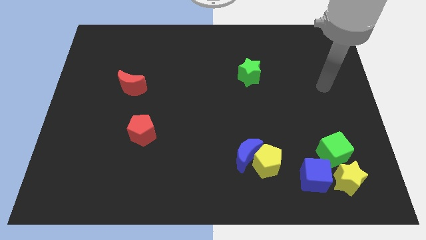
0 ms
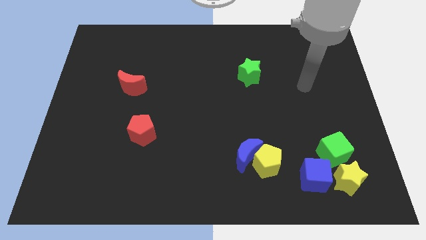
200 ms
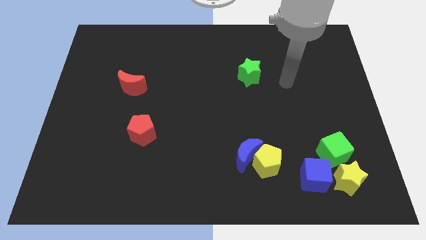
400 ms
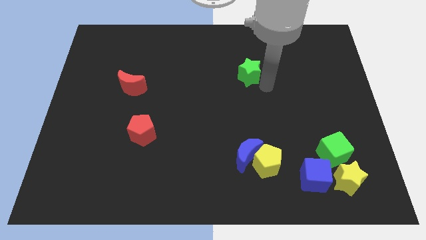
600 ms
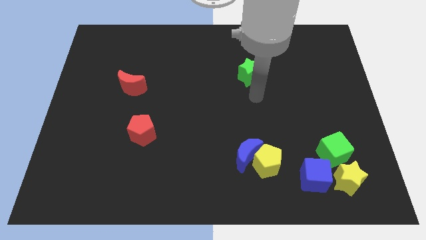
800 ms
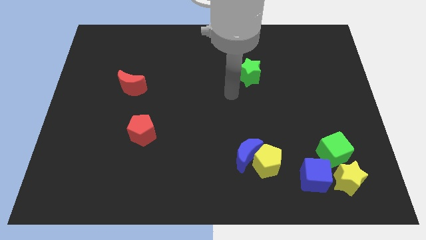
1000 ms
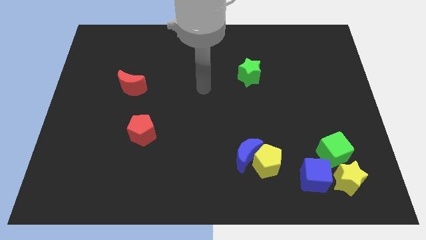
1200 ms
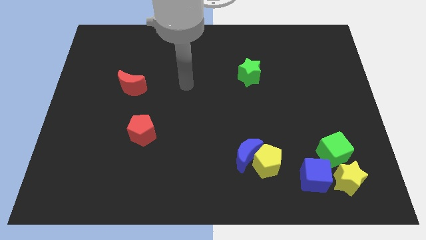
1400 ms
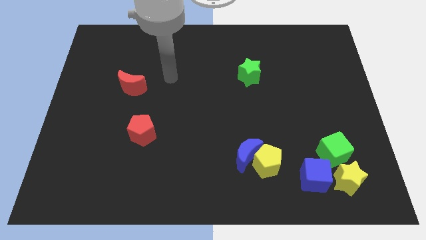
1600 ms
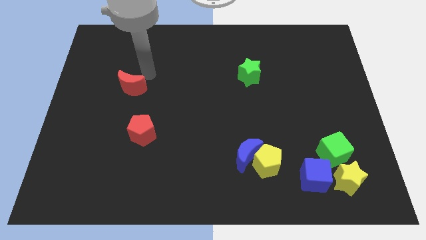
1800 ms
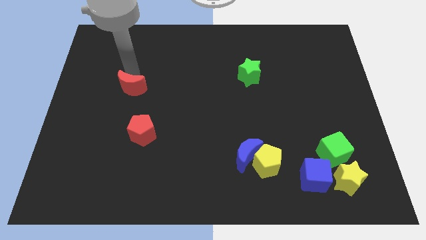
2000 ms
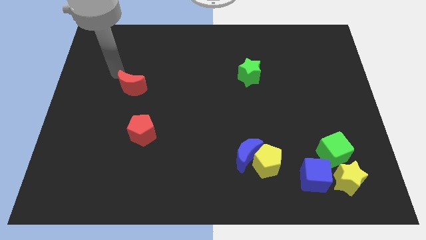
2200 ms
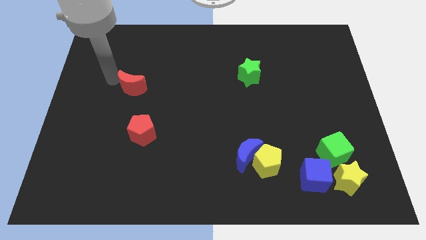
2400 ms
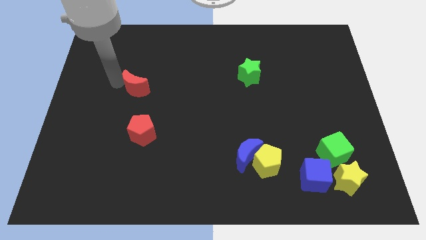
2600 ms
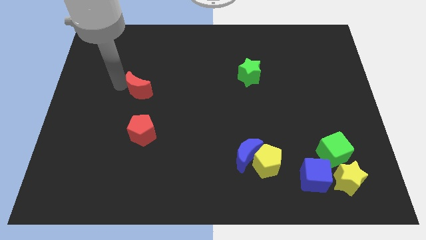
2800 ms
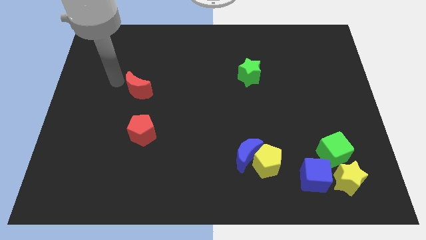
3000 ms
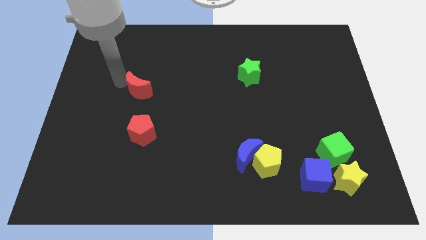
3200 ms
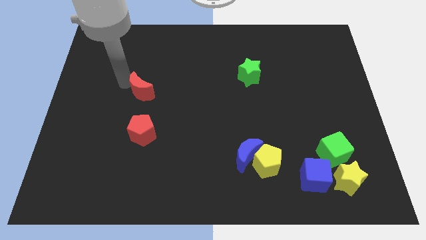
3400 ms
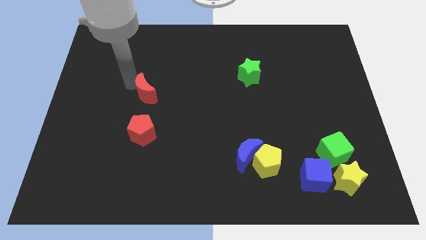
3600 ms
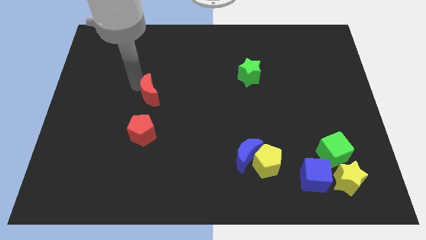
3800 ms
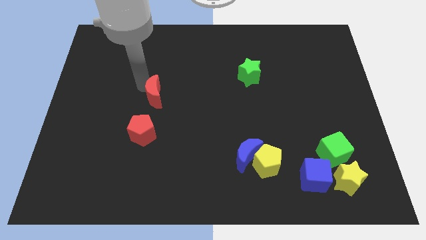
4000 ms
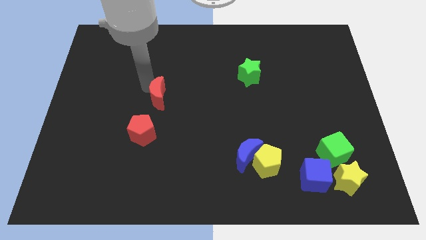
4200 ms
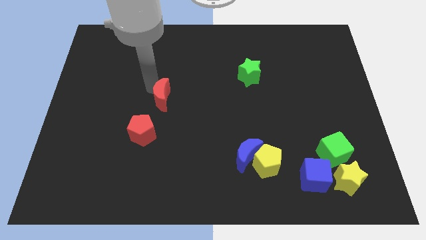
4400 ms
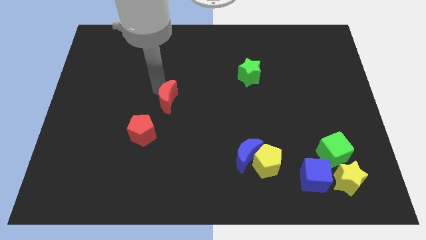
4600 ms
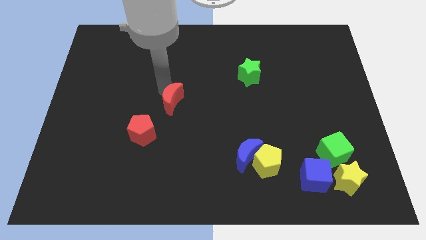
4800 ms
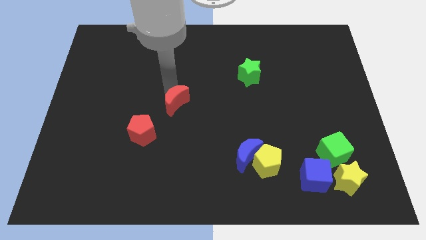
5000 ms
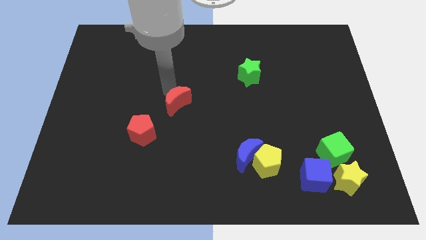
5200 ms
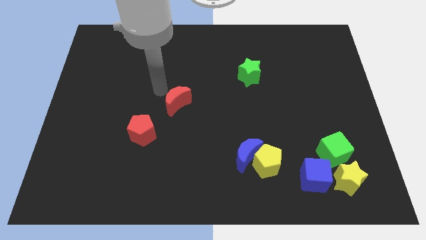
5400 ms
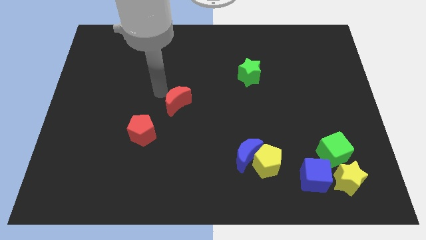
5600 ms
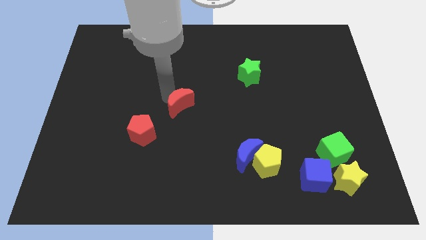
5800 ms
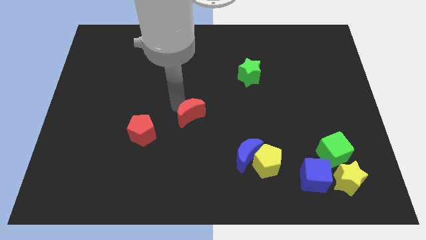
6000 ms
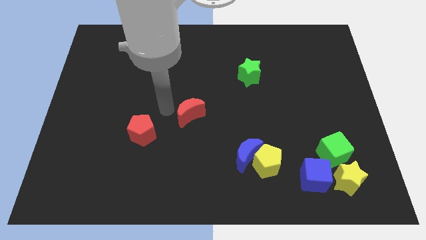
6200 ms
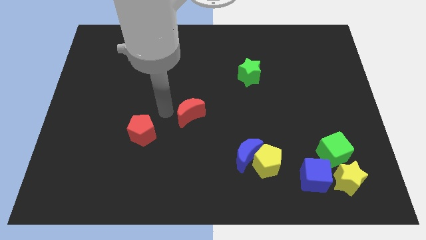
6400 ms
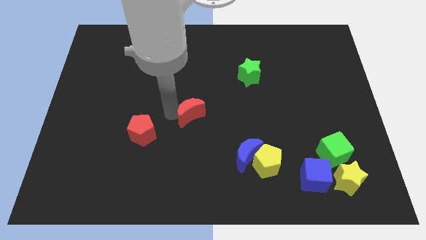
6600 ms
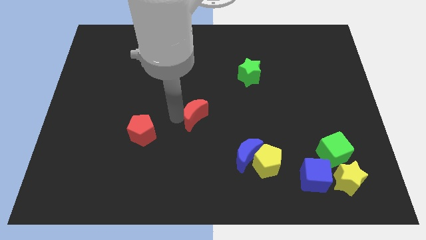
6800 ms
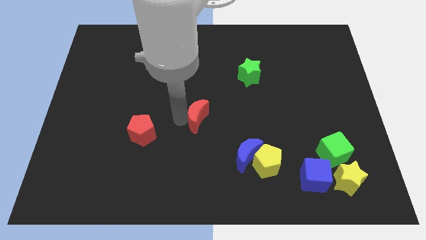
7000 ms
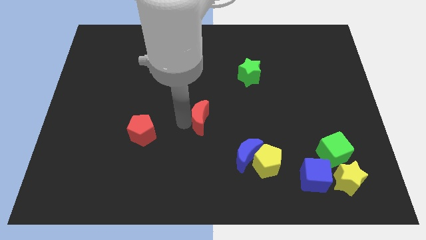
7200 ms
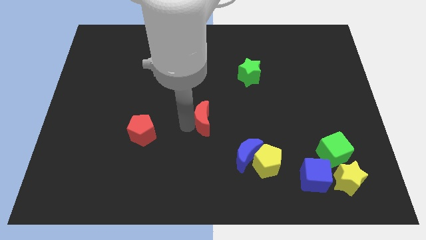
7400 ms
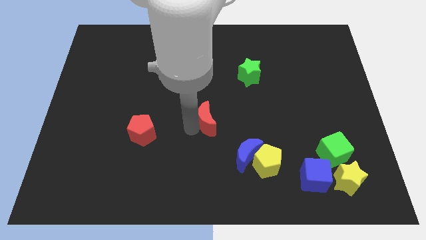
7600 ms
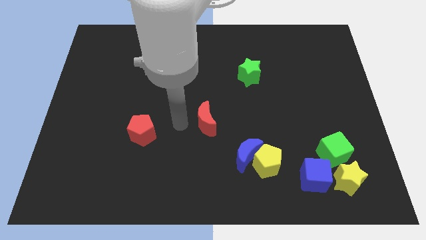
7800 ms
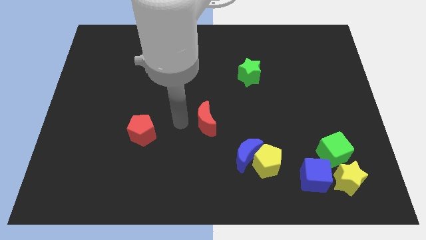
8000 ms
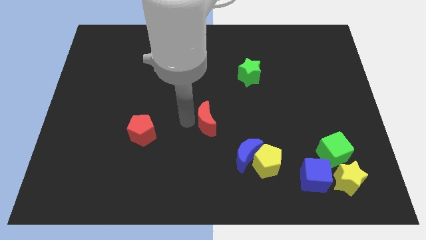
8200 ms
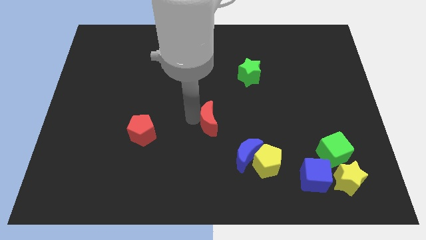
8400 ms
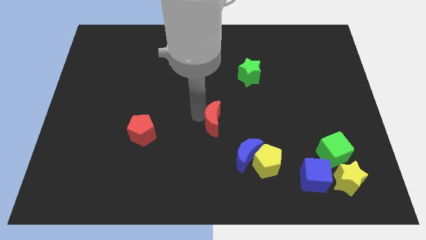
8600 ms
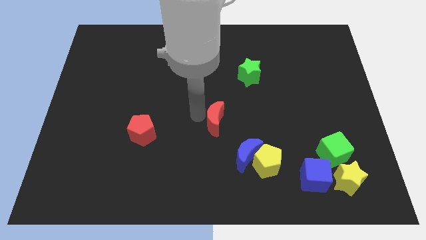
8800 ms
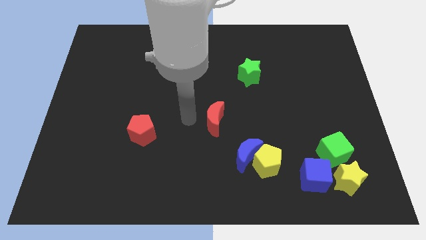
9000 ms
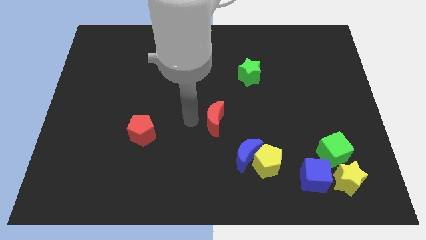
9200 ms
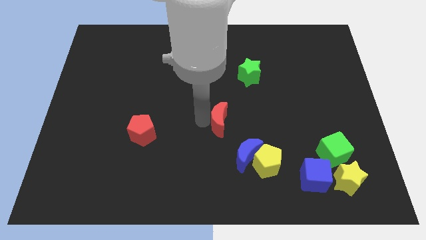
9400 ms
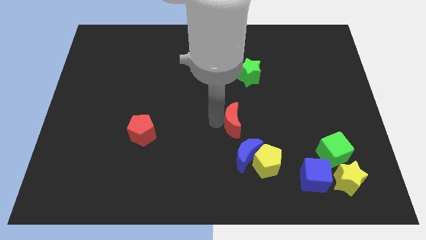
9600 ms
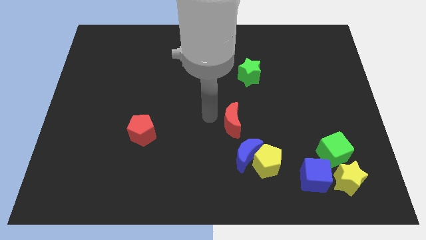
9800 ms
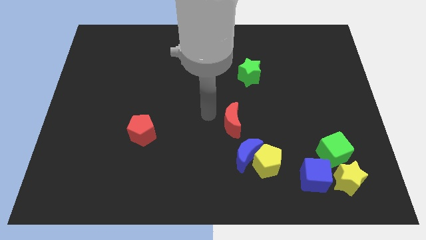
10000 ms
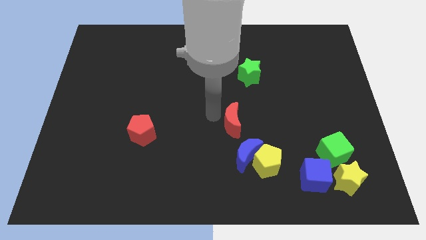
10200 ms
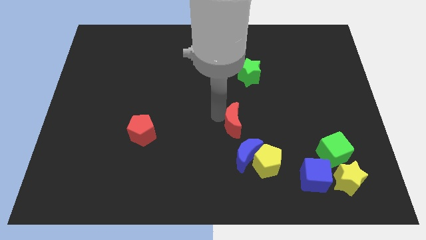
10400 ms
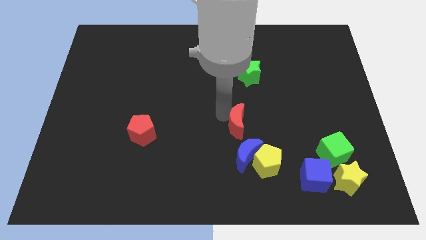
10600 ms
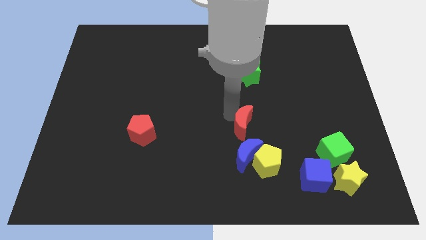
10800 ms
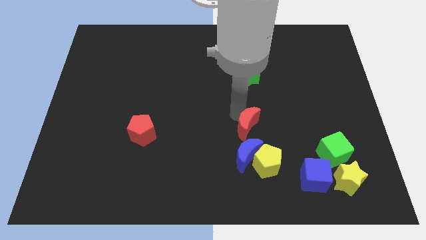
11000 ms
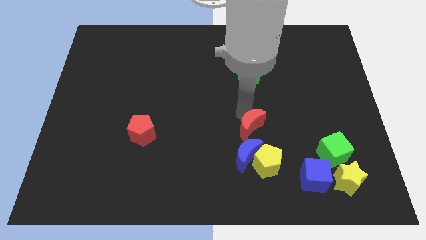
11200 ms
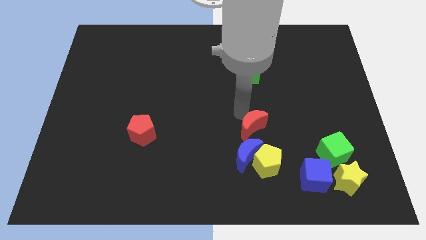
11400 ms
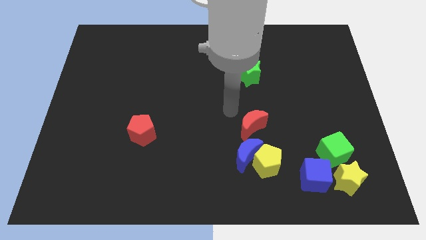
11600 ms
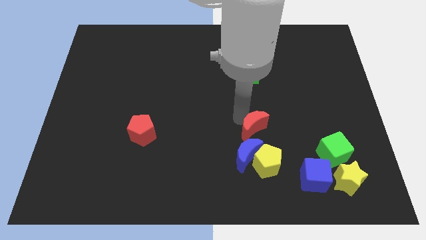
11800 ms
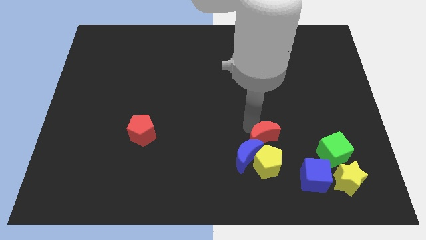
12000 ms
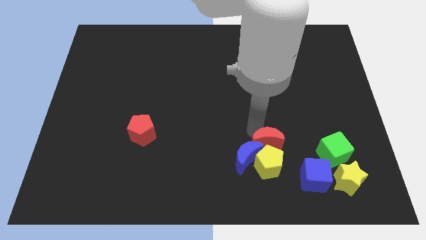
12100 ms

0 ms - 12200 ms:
move the red moon to the right of the blue moon

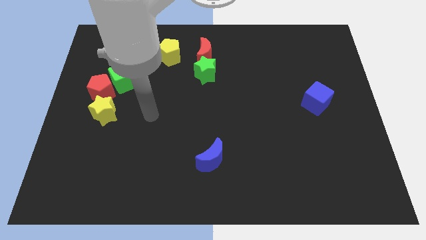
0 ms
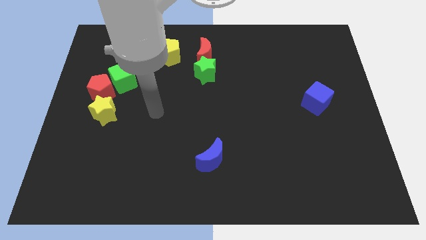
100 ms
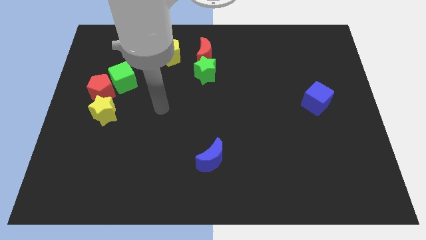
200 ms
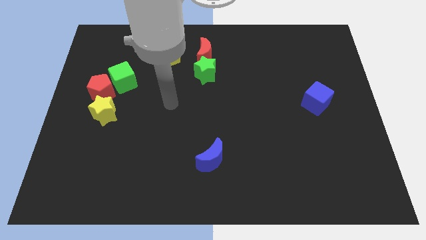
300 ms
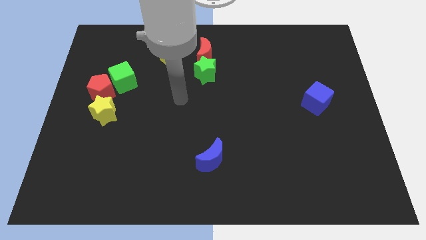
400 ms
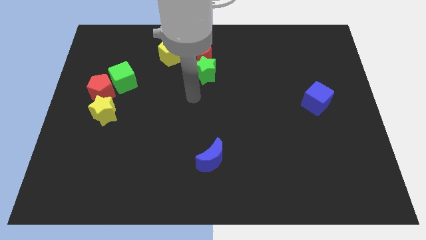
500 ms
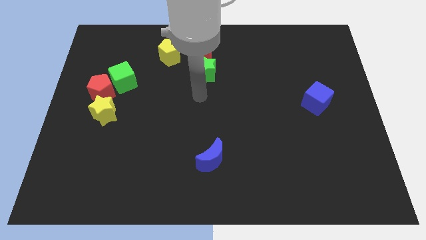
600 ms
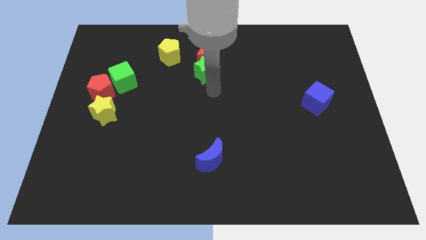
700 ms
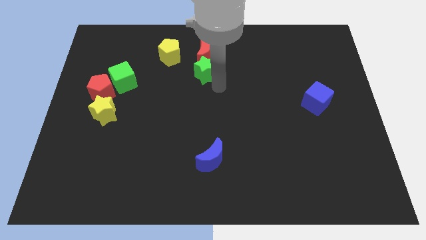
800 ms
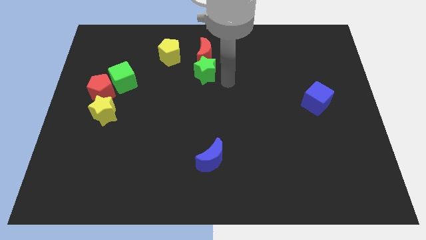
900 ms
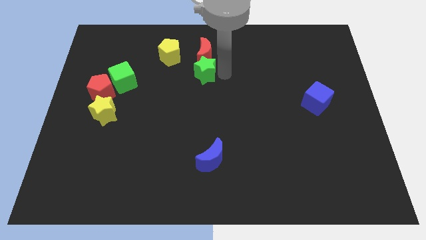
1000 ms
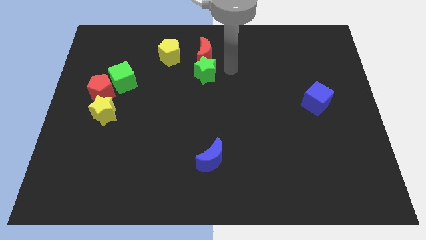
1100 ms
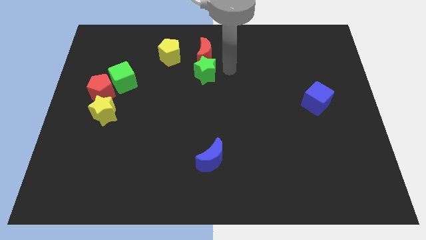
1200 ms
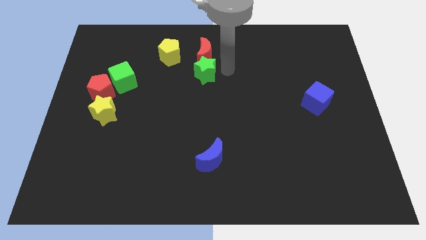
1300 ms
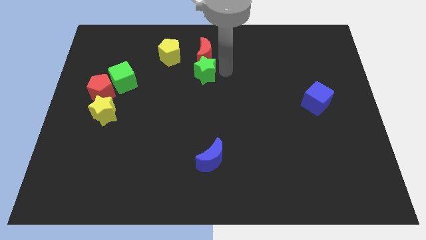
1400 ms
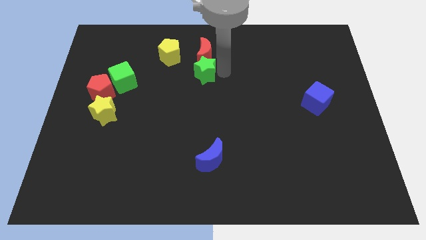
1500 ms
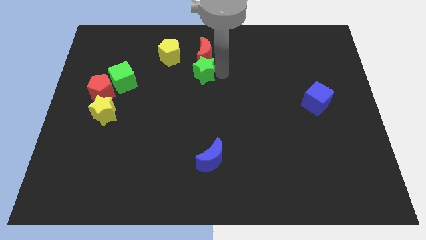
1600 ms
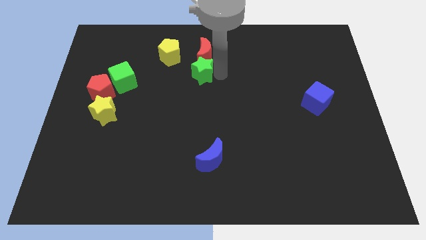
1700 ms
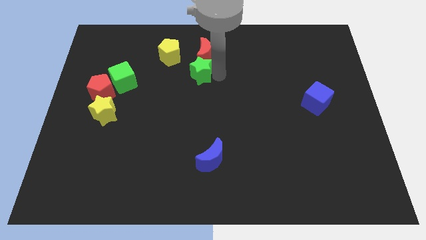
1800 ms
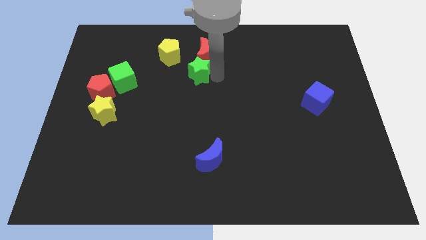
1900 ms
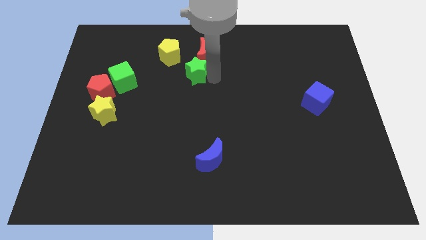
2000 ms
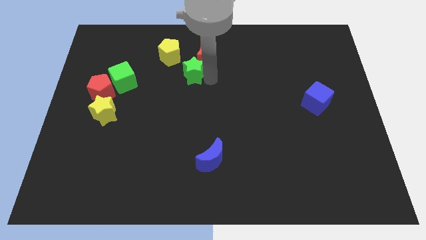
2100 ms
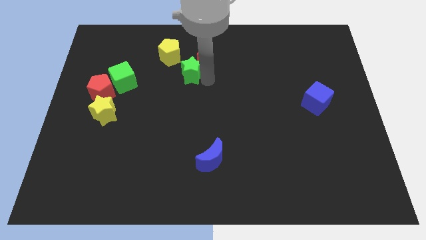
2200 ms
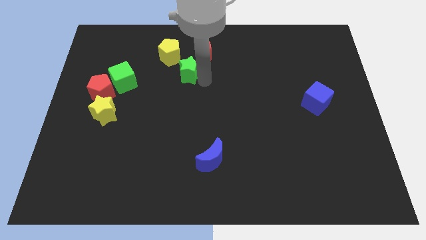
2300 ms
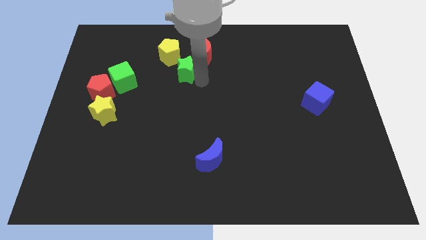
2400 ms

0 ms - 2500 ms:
put the green star to the right side of the green cube
